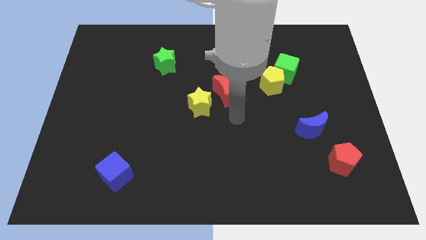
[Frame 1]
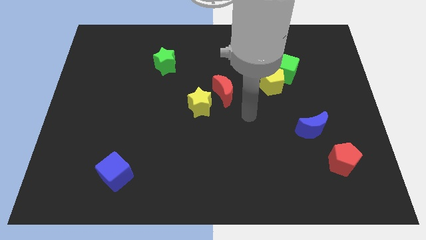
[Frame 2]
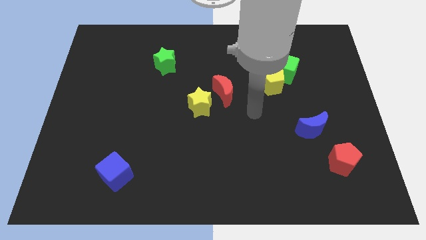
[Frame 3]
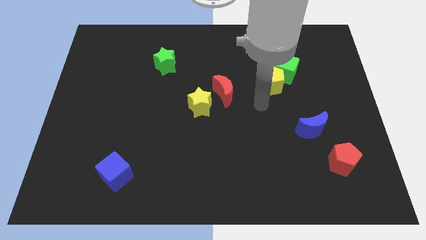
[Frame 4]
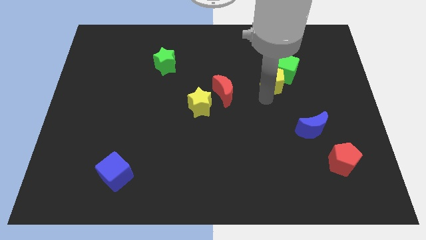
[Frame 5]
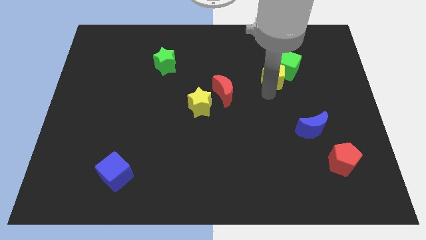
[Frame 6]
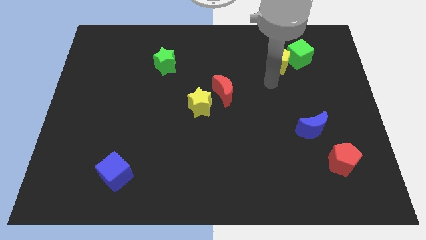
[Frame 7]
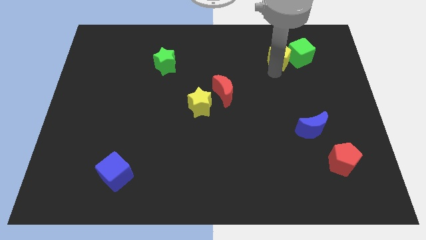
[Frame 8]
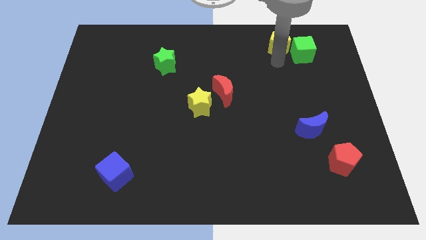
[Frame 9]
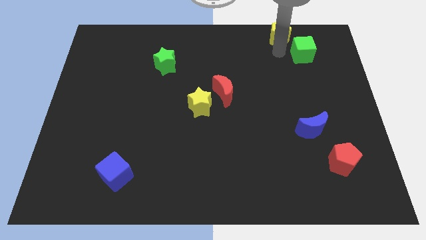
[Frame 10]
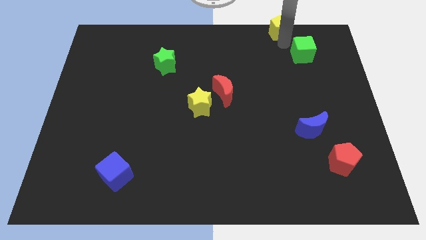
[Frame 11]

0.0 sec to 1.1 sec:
pull the green cube apart from the yellow pentagon

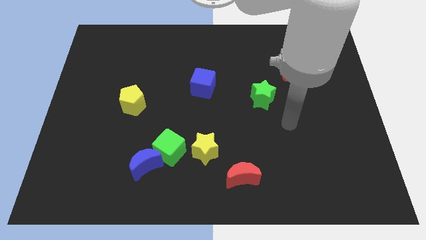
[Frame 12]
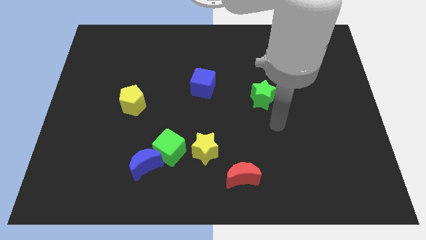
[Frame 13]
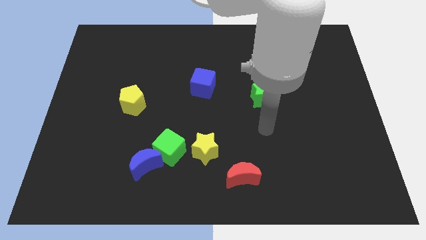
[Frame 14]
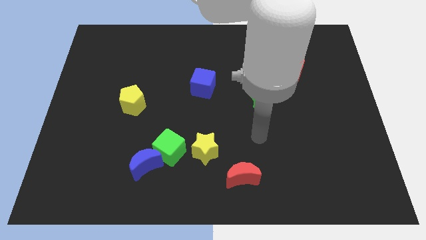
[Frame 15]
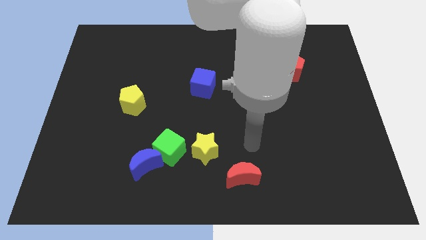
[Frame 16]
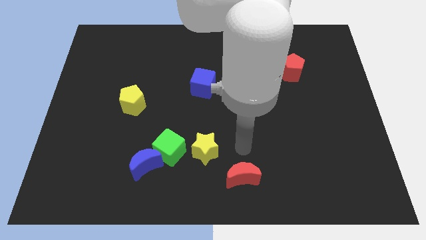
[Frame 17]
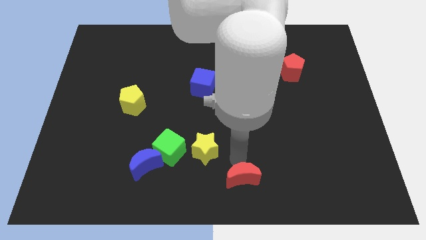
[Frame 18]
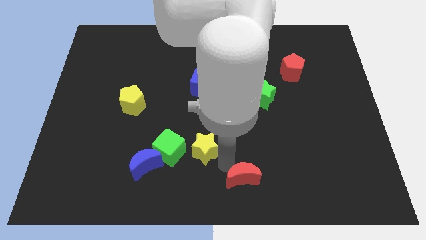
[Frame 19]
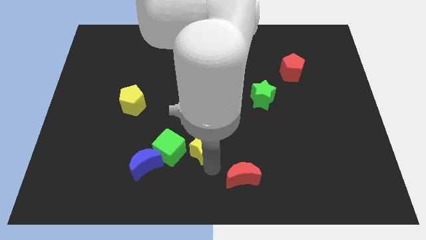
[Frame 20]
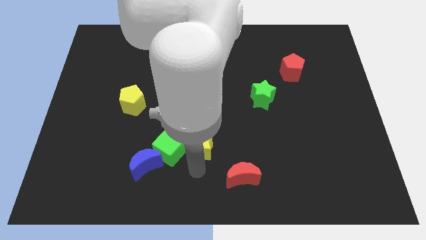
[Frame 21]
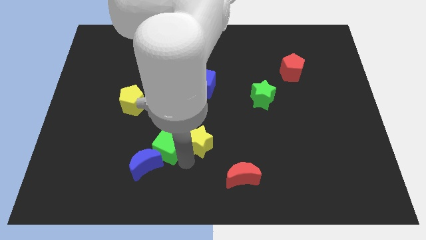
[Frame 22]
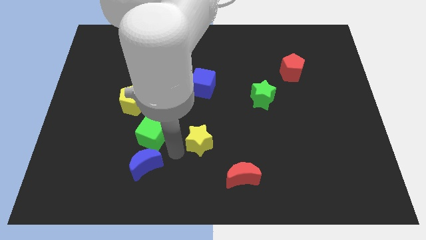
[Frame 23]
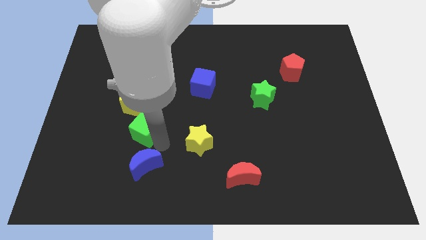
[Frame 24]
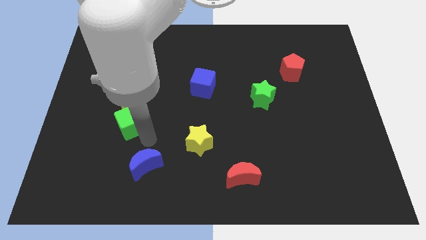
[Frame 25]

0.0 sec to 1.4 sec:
move the blue moon away from the green cube

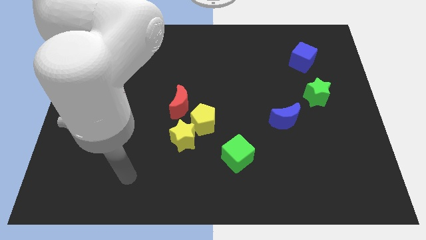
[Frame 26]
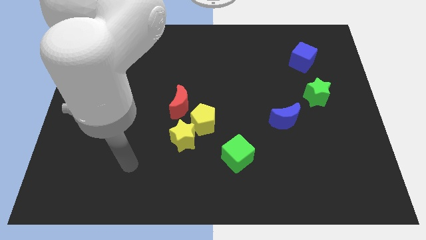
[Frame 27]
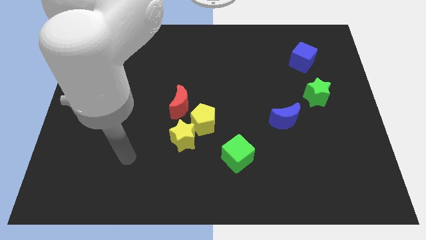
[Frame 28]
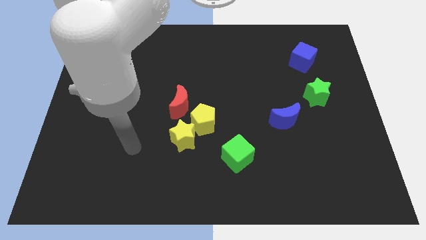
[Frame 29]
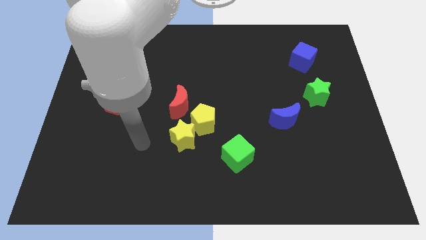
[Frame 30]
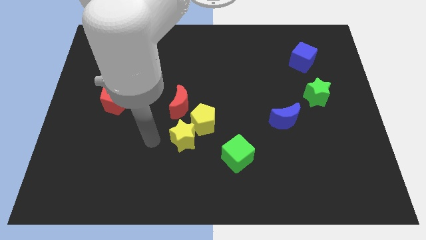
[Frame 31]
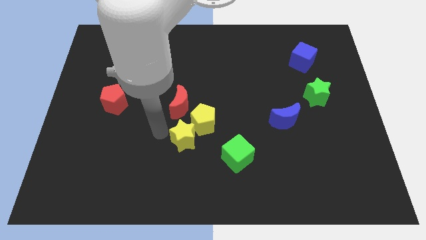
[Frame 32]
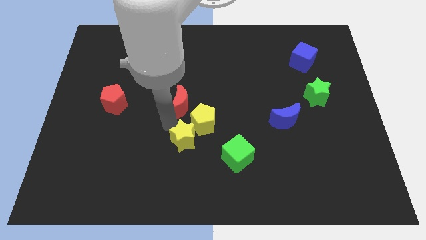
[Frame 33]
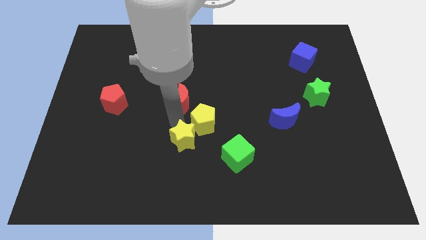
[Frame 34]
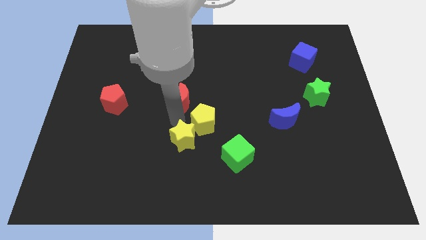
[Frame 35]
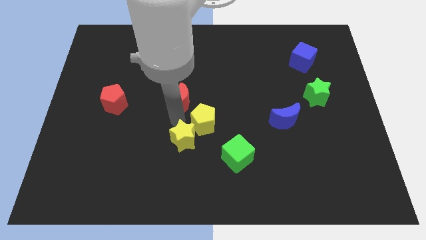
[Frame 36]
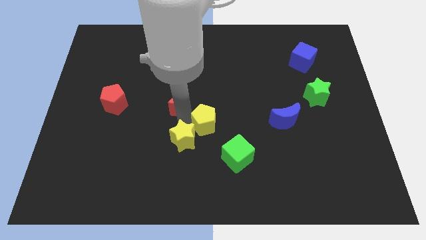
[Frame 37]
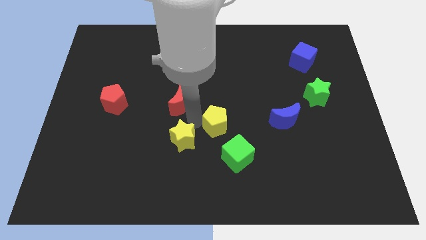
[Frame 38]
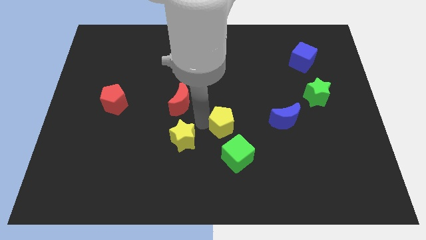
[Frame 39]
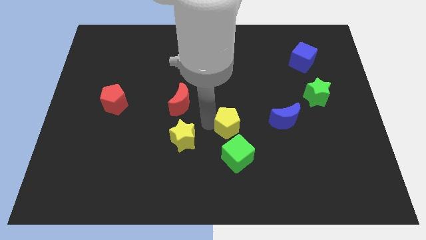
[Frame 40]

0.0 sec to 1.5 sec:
separate the yellow pentagon from the yellow star and red moon

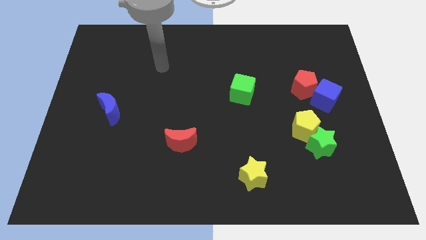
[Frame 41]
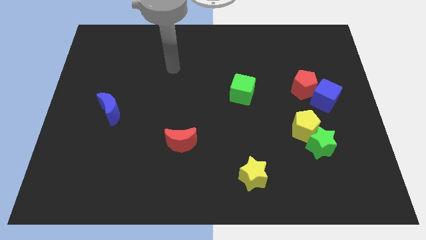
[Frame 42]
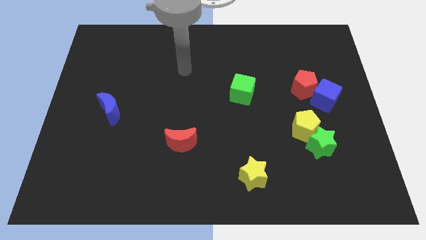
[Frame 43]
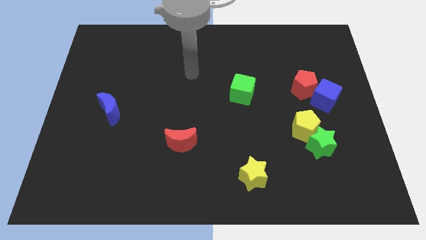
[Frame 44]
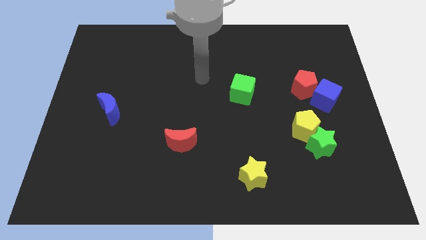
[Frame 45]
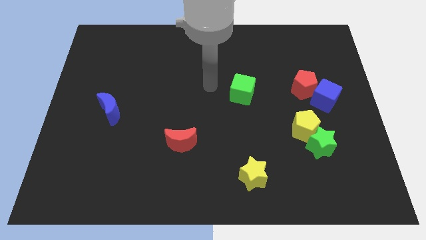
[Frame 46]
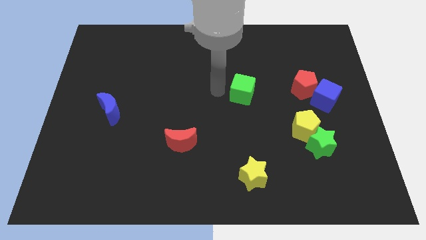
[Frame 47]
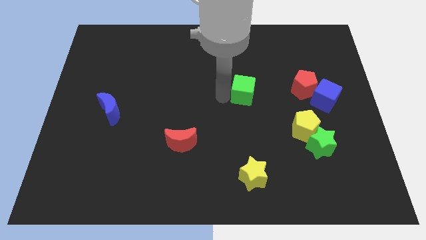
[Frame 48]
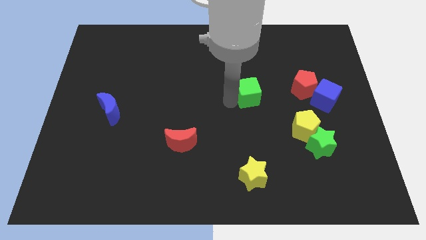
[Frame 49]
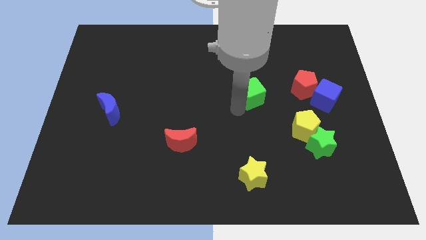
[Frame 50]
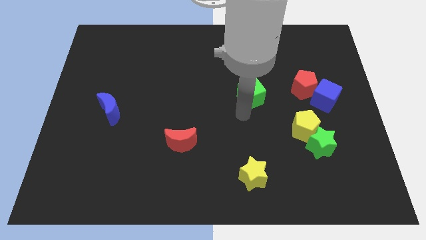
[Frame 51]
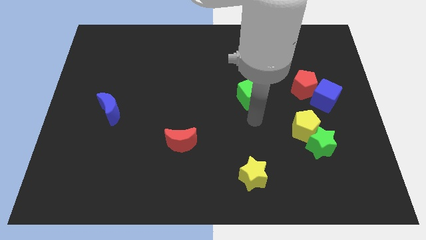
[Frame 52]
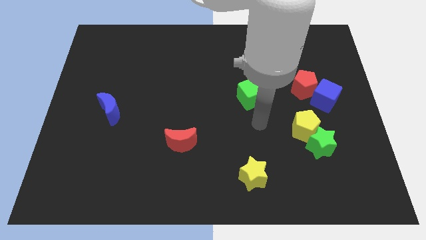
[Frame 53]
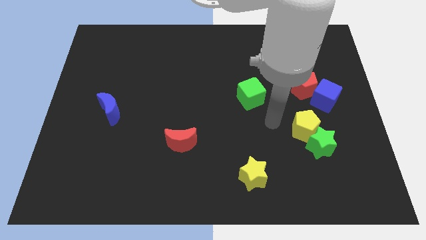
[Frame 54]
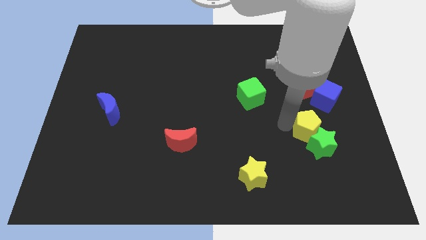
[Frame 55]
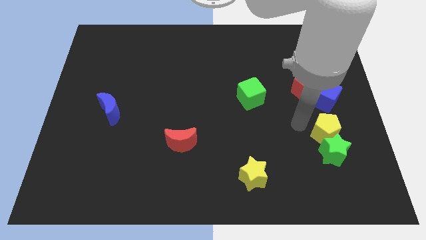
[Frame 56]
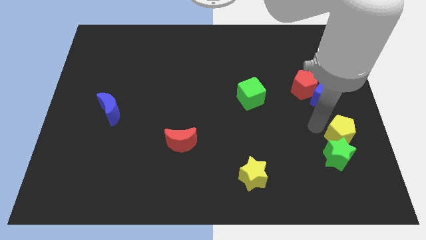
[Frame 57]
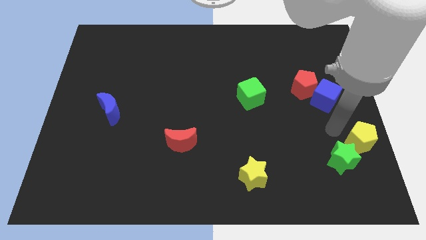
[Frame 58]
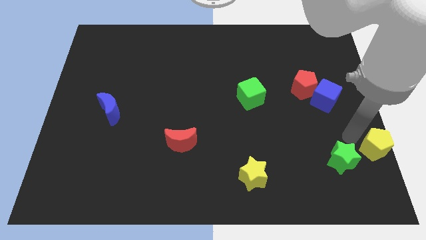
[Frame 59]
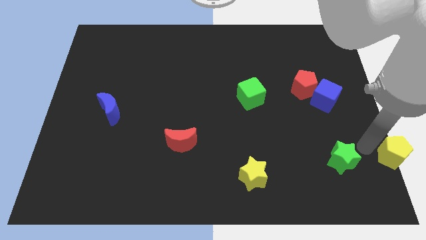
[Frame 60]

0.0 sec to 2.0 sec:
pull the green star apart from the yellow pentagon

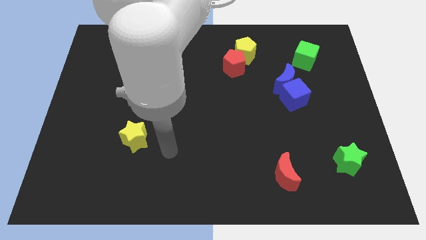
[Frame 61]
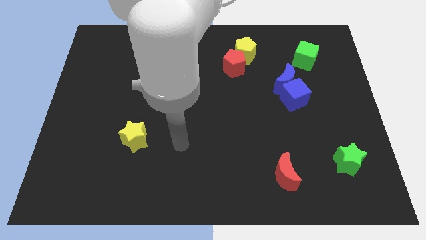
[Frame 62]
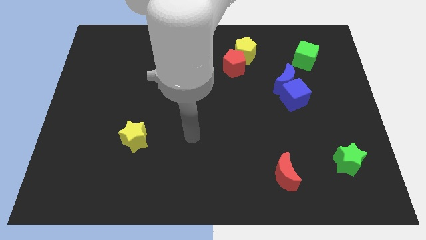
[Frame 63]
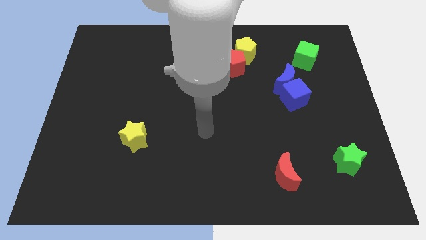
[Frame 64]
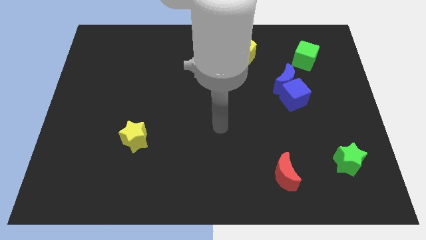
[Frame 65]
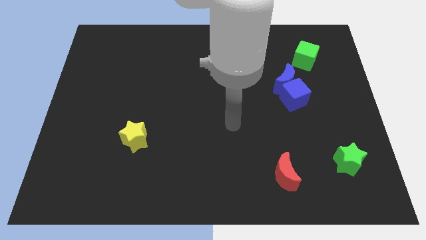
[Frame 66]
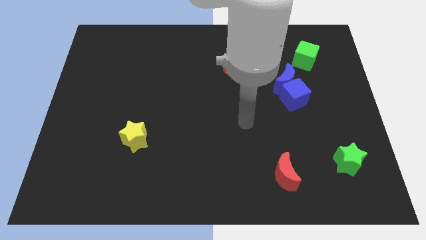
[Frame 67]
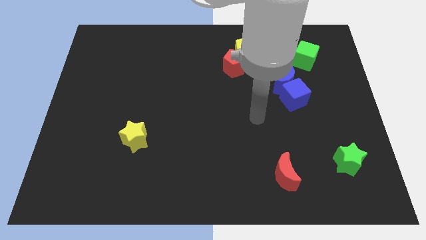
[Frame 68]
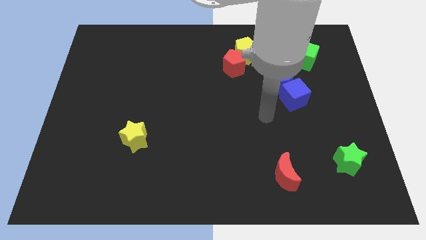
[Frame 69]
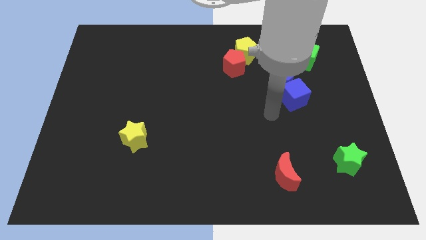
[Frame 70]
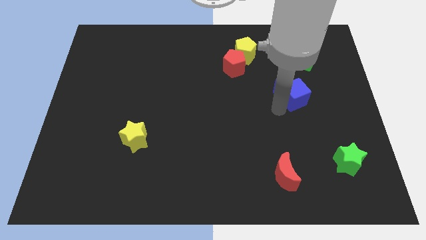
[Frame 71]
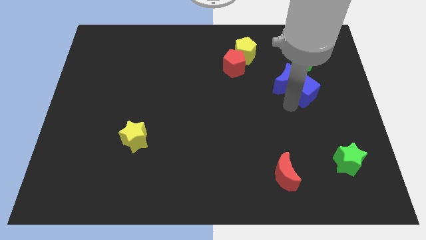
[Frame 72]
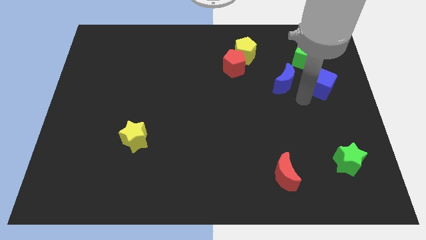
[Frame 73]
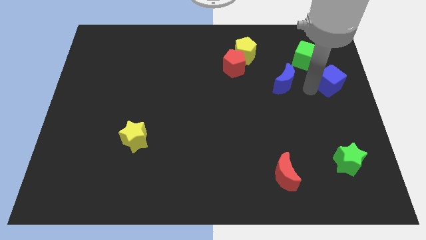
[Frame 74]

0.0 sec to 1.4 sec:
separate the blue moon from the blue cube

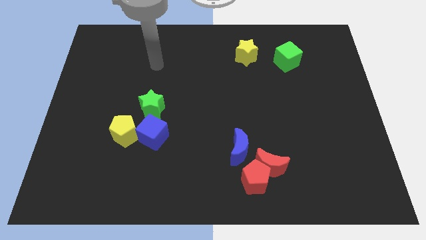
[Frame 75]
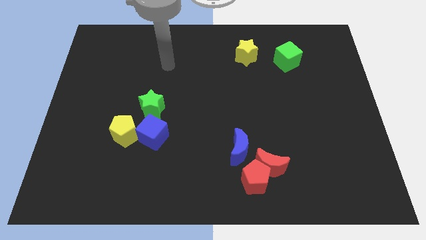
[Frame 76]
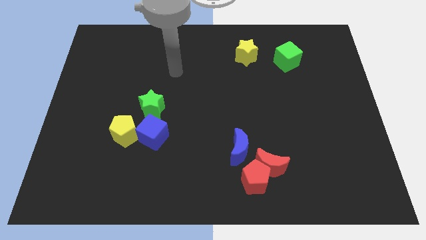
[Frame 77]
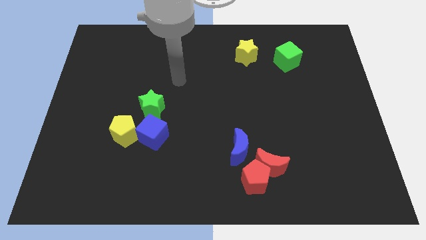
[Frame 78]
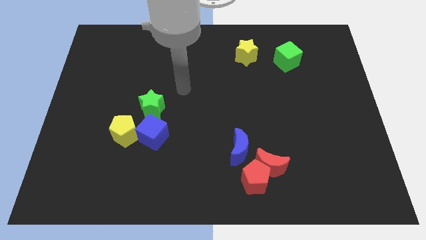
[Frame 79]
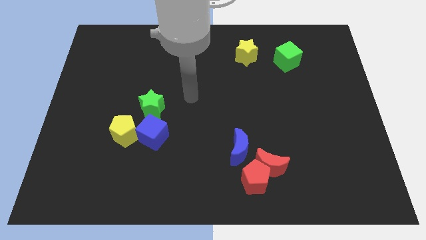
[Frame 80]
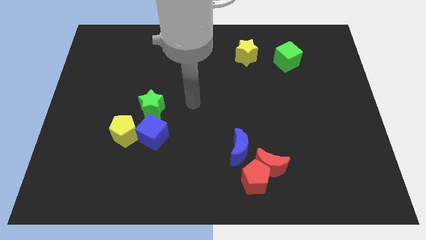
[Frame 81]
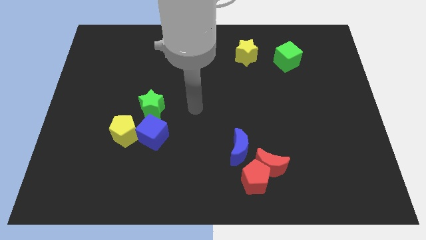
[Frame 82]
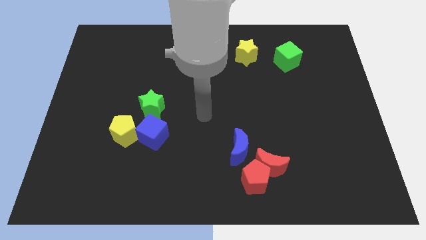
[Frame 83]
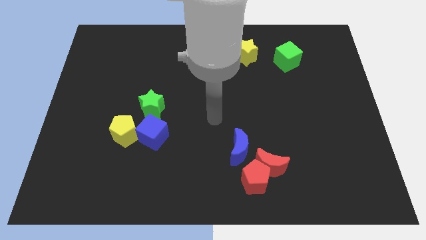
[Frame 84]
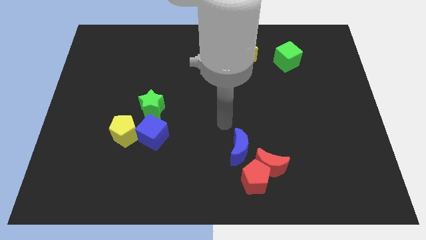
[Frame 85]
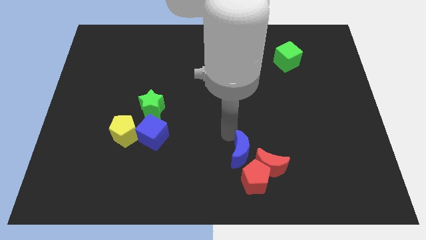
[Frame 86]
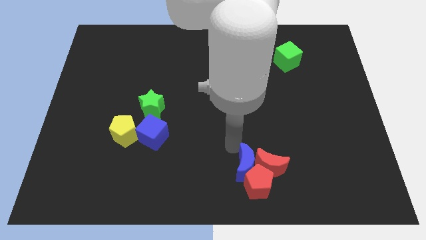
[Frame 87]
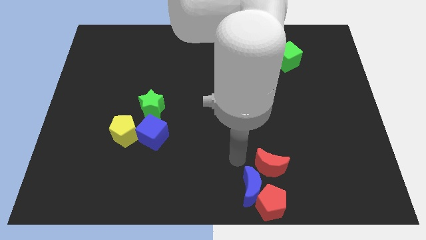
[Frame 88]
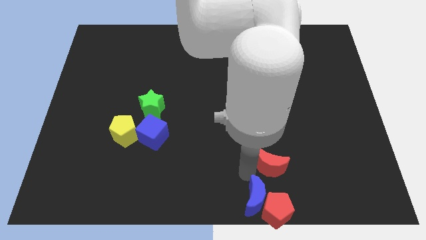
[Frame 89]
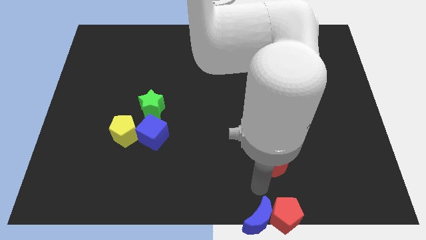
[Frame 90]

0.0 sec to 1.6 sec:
move the red moon away from the red pentagon and blue moon

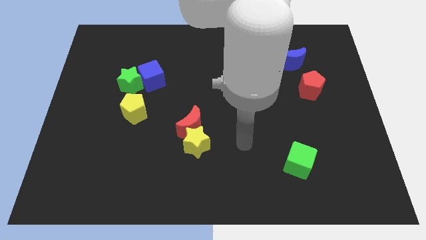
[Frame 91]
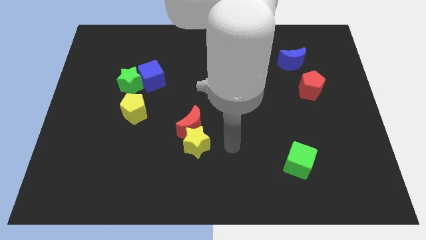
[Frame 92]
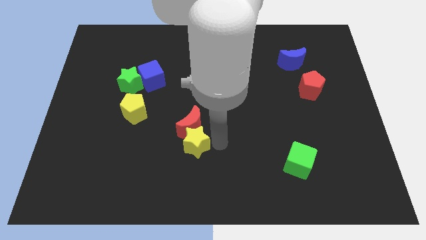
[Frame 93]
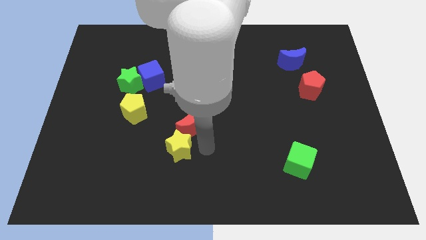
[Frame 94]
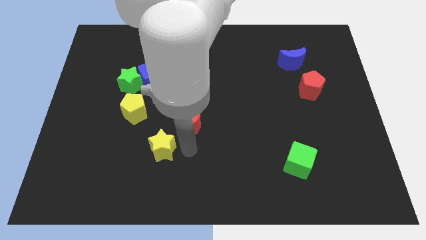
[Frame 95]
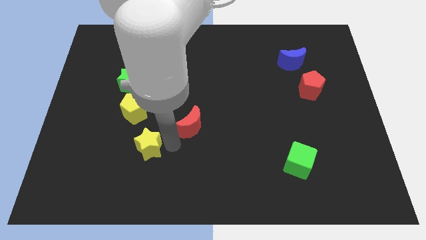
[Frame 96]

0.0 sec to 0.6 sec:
separate the red moon from the yellow star
